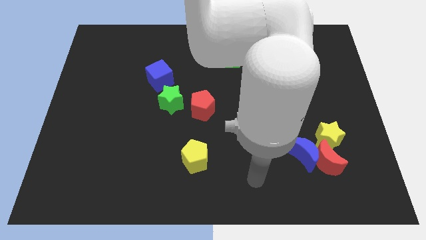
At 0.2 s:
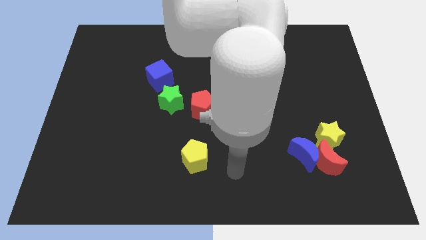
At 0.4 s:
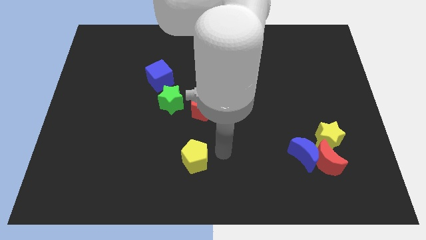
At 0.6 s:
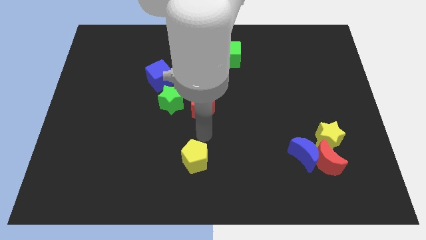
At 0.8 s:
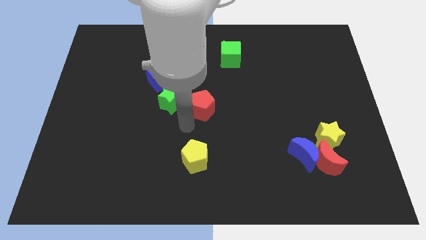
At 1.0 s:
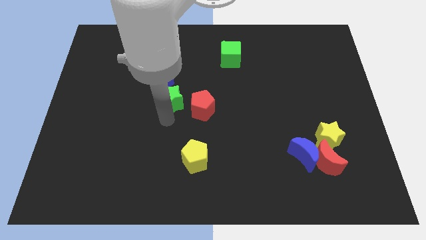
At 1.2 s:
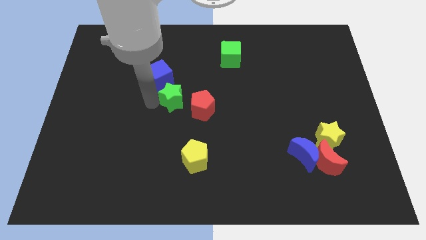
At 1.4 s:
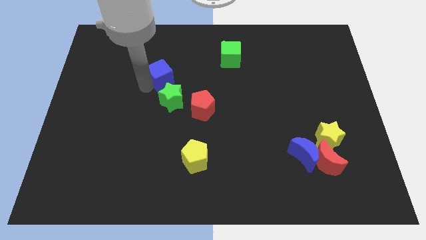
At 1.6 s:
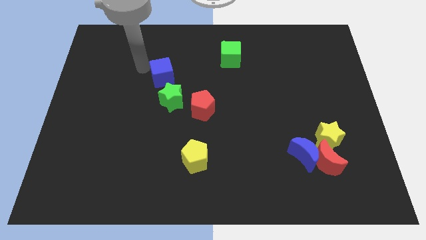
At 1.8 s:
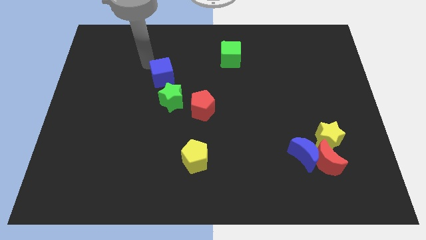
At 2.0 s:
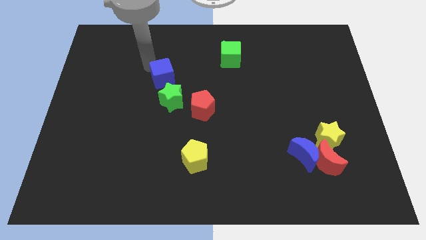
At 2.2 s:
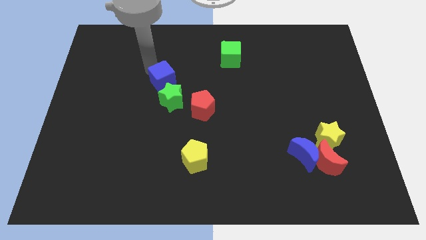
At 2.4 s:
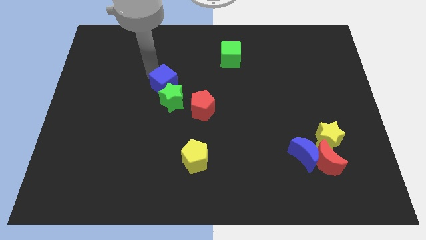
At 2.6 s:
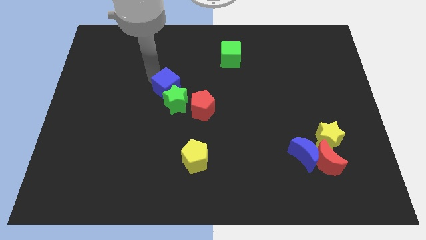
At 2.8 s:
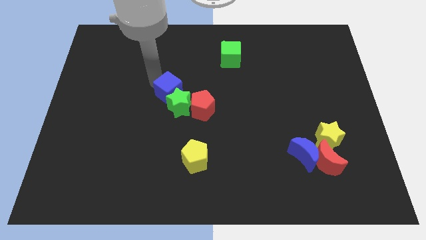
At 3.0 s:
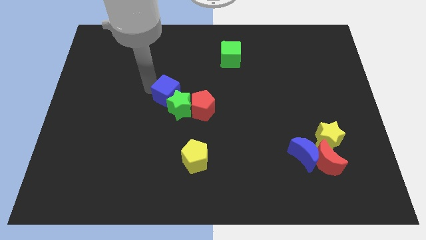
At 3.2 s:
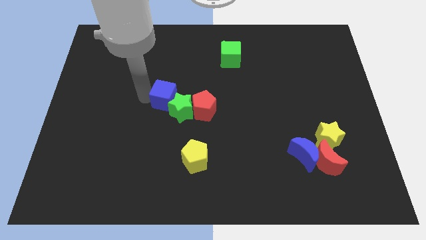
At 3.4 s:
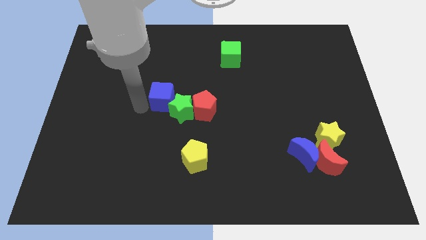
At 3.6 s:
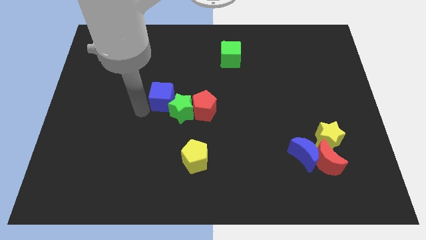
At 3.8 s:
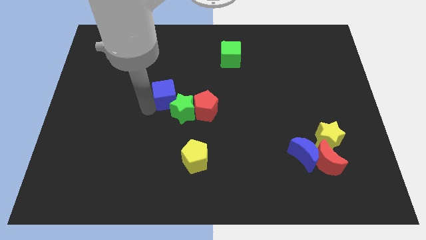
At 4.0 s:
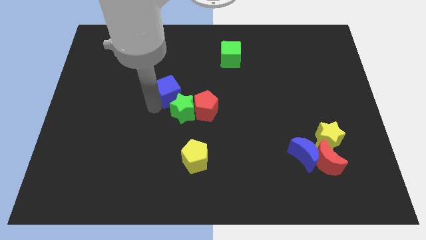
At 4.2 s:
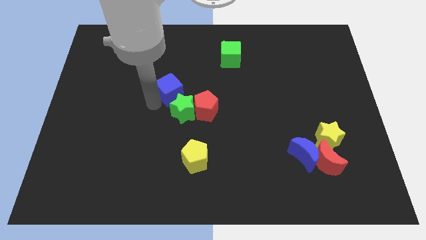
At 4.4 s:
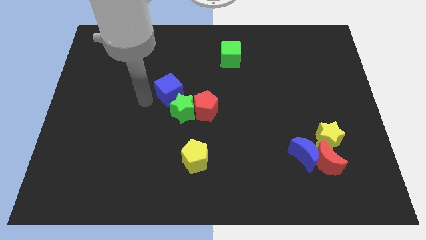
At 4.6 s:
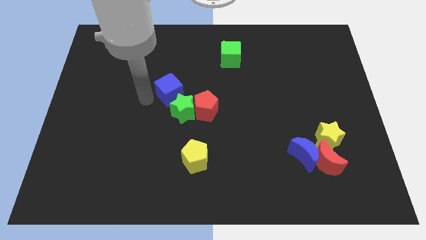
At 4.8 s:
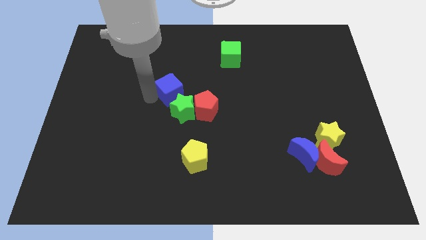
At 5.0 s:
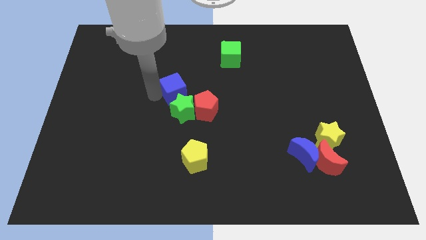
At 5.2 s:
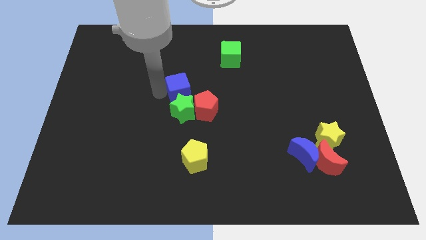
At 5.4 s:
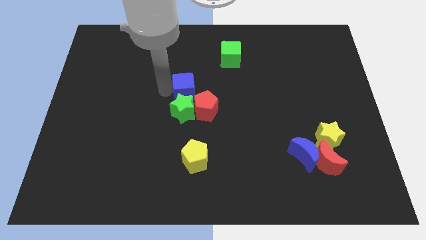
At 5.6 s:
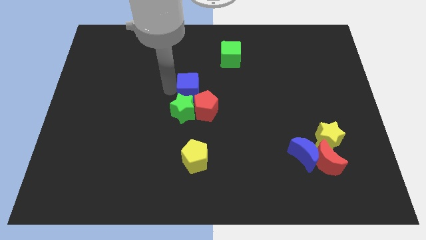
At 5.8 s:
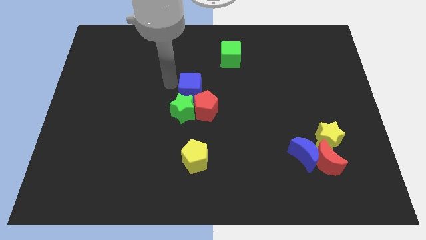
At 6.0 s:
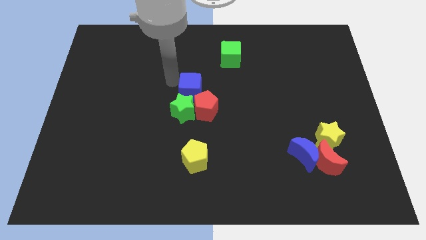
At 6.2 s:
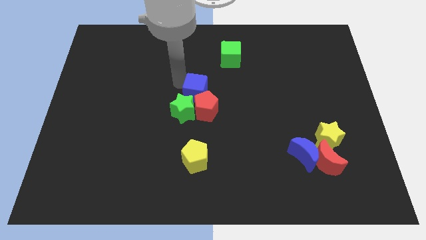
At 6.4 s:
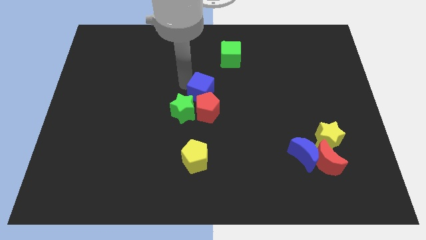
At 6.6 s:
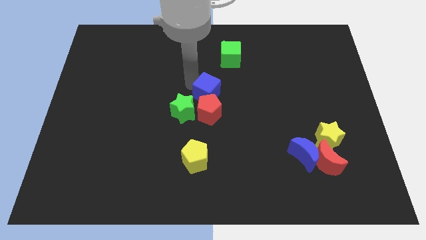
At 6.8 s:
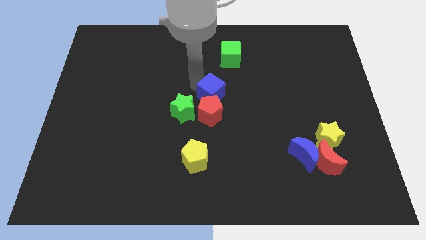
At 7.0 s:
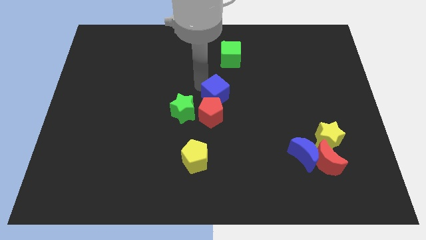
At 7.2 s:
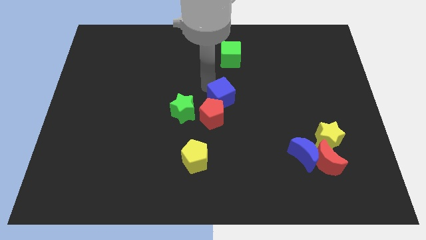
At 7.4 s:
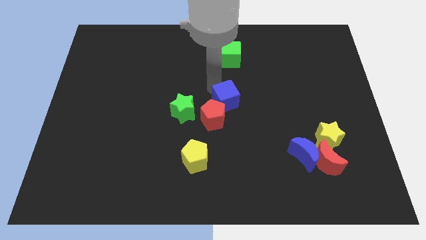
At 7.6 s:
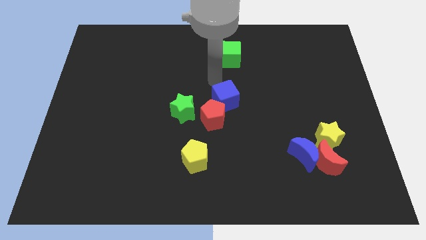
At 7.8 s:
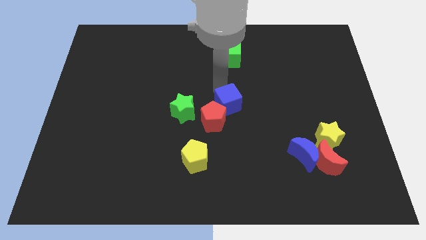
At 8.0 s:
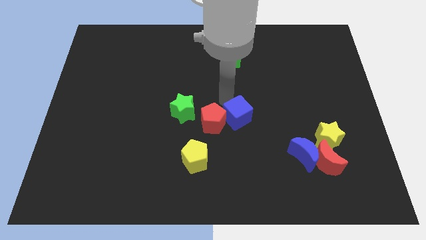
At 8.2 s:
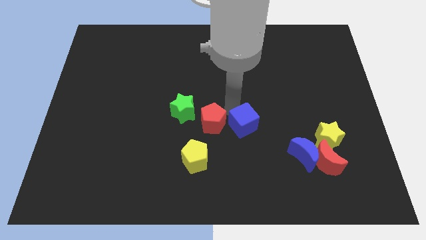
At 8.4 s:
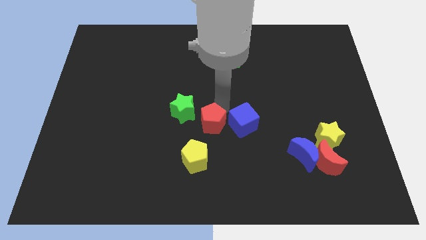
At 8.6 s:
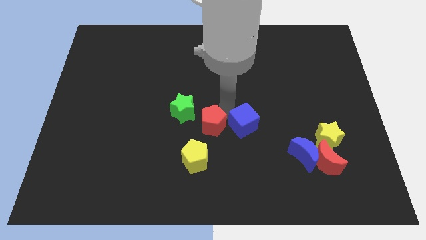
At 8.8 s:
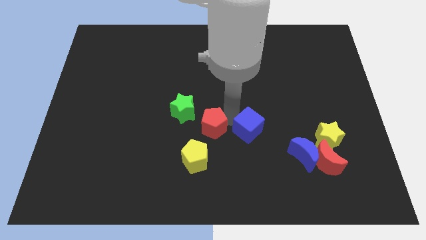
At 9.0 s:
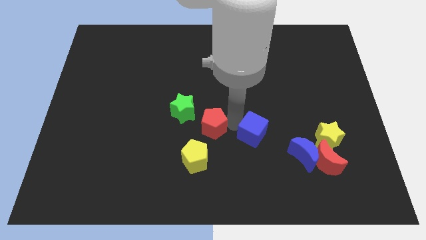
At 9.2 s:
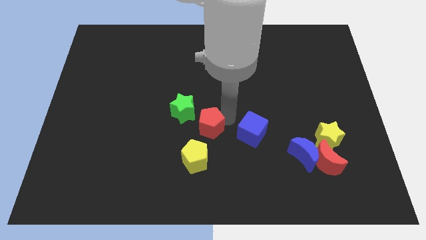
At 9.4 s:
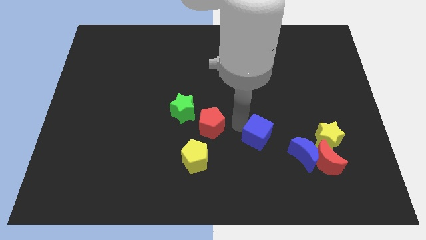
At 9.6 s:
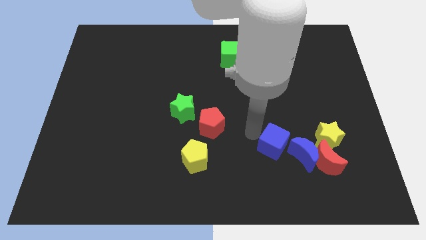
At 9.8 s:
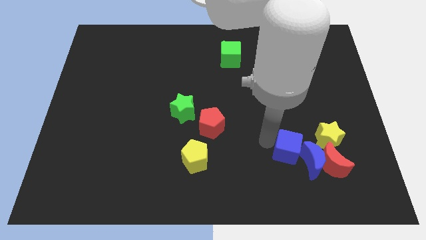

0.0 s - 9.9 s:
push the blue cube towards the blue moon

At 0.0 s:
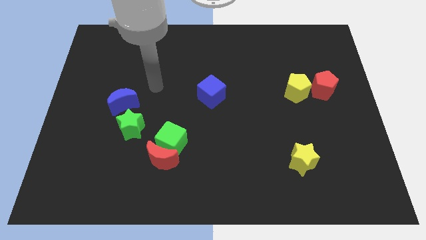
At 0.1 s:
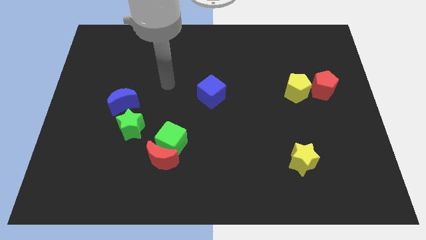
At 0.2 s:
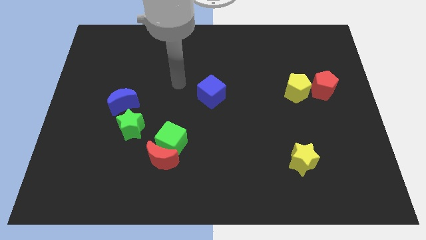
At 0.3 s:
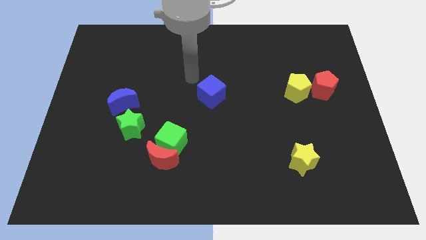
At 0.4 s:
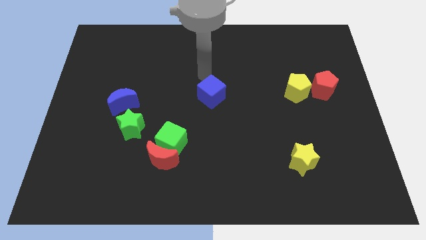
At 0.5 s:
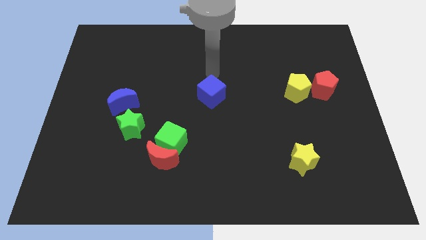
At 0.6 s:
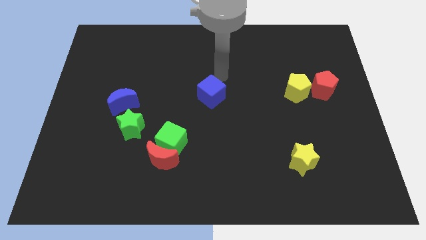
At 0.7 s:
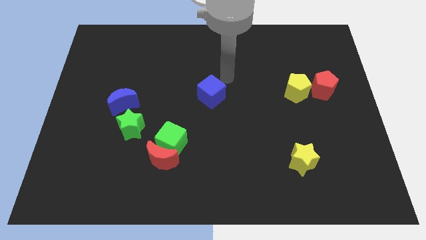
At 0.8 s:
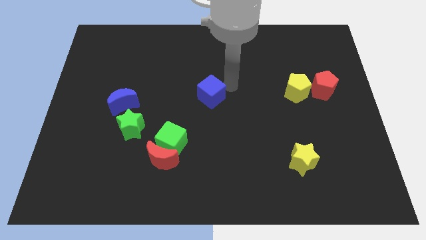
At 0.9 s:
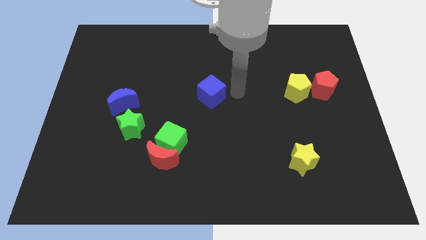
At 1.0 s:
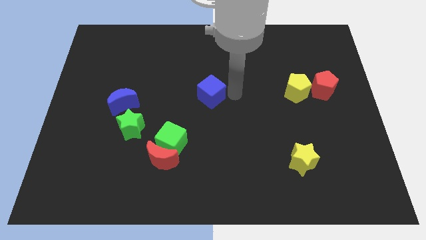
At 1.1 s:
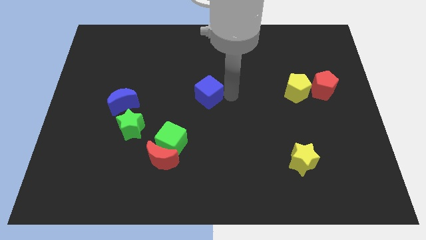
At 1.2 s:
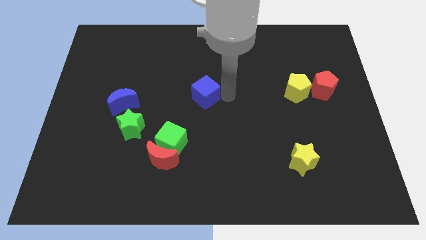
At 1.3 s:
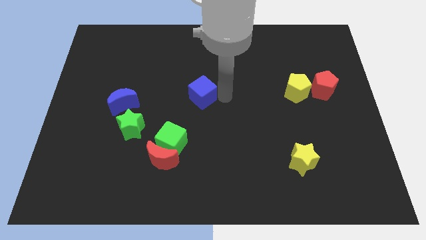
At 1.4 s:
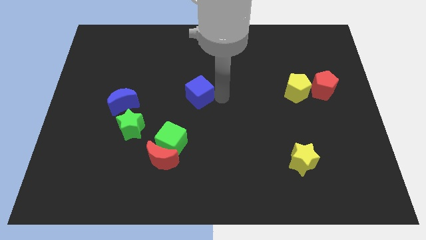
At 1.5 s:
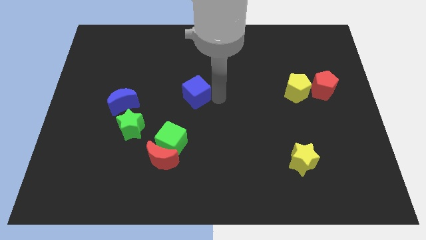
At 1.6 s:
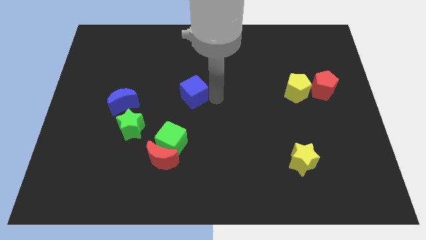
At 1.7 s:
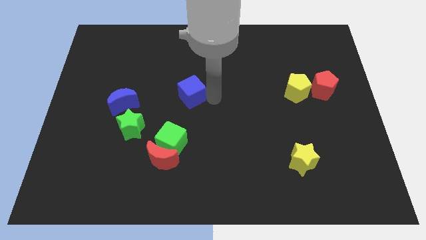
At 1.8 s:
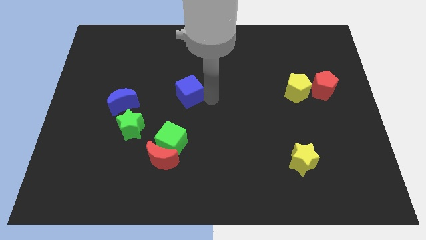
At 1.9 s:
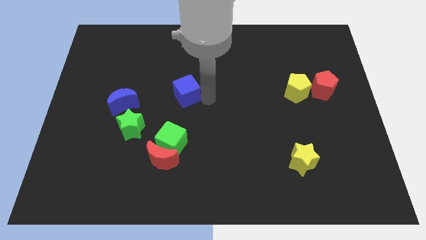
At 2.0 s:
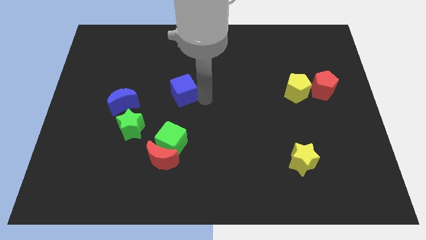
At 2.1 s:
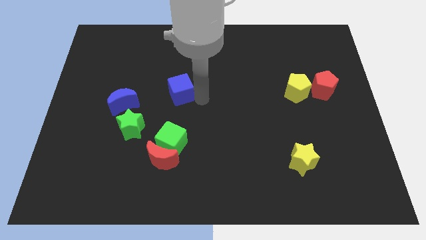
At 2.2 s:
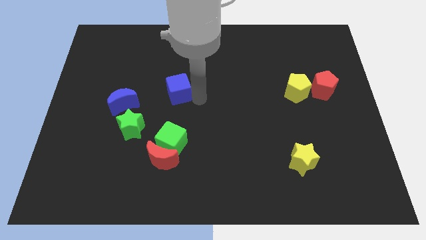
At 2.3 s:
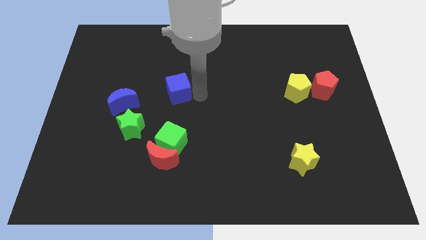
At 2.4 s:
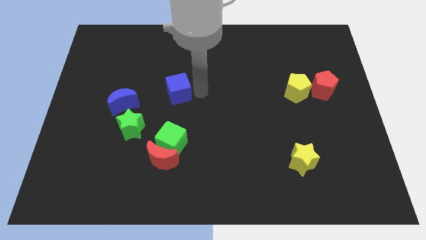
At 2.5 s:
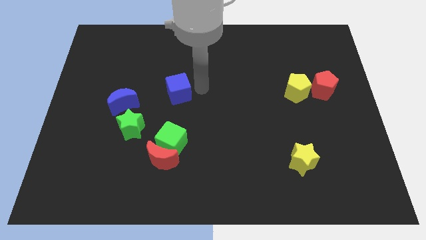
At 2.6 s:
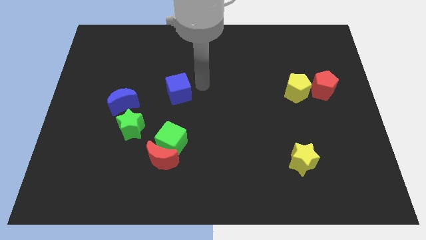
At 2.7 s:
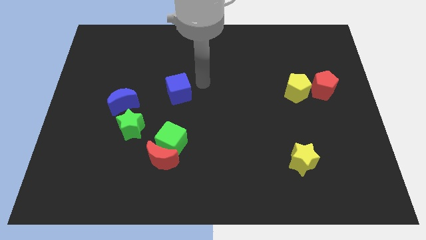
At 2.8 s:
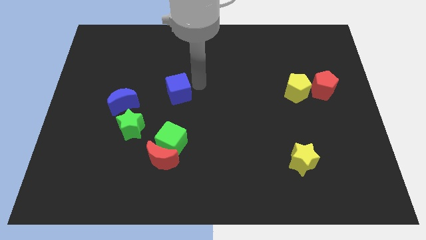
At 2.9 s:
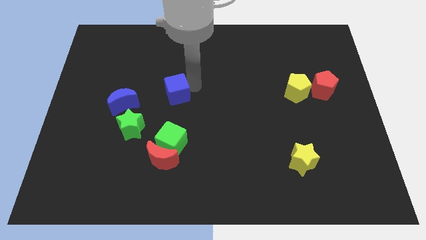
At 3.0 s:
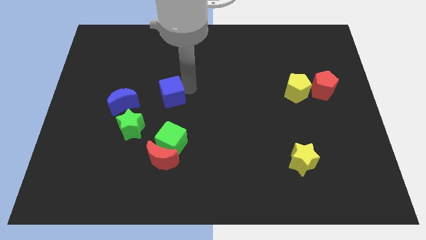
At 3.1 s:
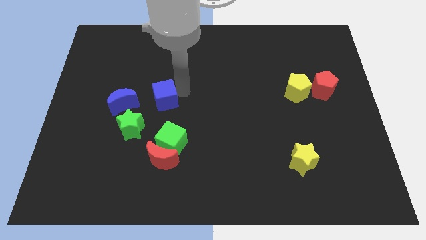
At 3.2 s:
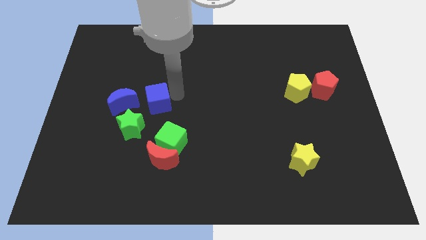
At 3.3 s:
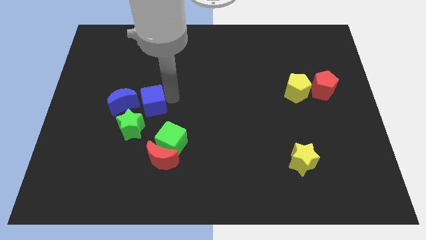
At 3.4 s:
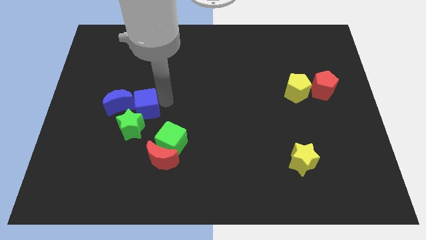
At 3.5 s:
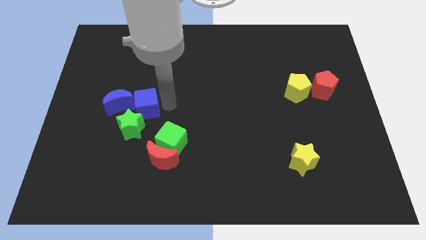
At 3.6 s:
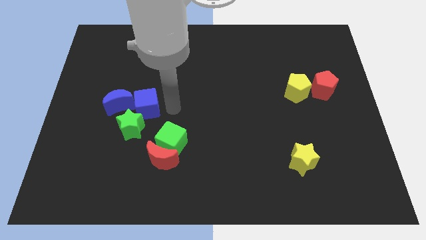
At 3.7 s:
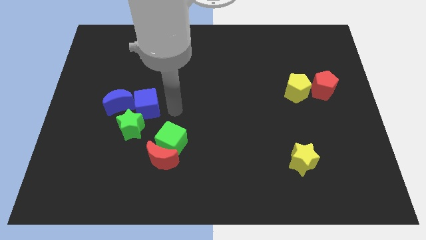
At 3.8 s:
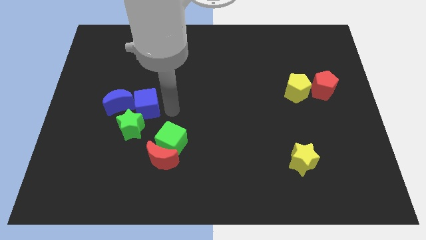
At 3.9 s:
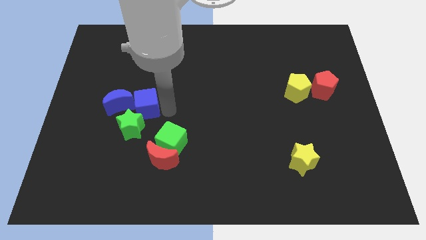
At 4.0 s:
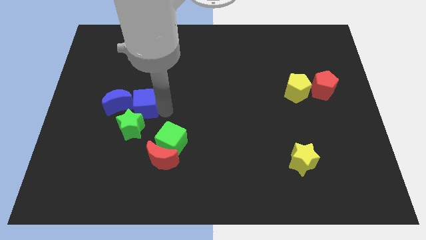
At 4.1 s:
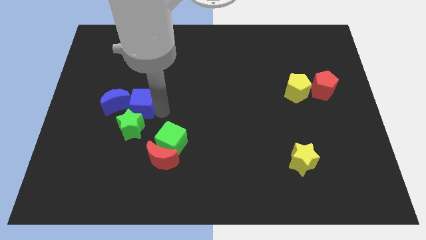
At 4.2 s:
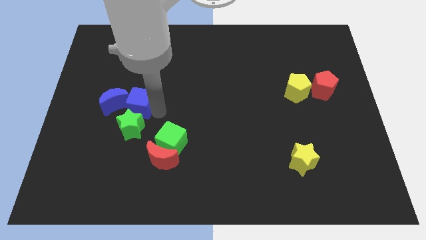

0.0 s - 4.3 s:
push the blue cube next to the blue moon
